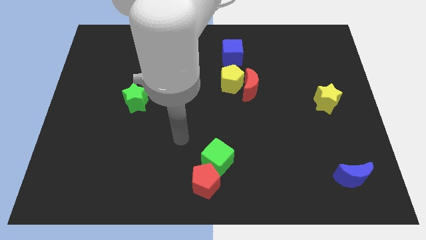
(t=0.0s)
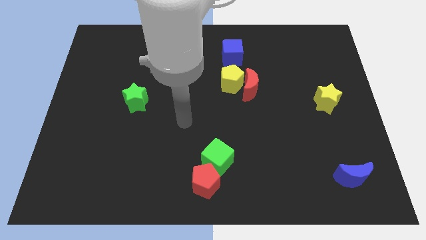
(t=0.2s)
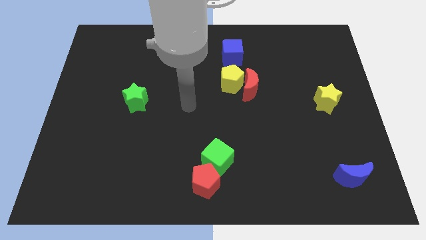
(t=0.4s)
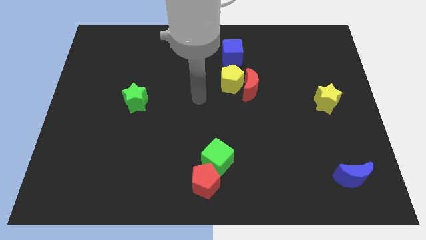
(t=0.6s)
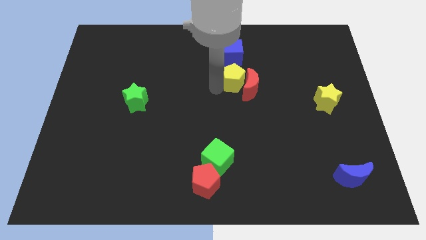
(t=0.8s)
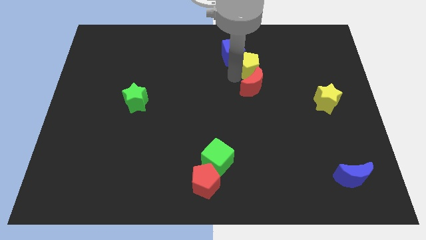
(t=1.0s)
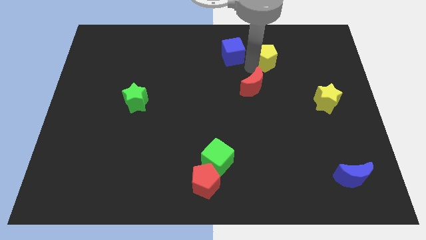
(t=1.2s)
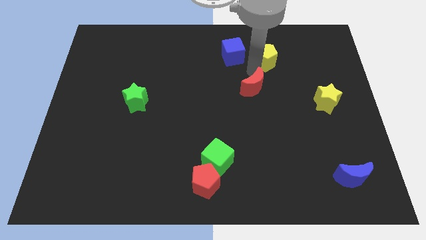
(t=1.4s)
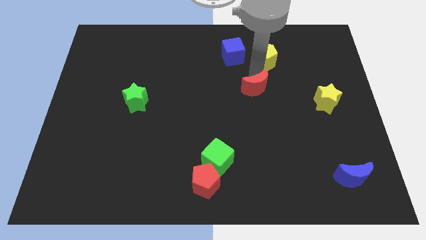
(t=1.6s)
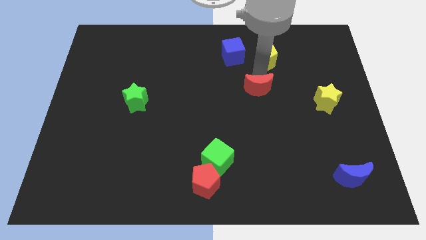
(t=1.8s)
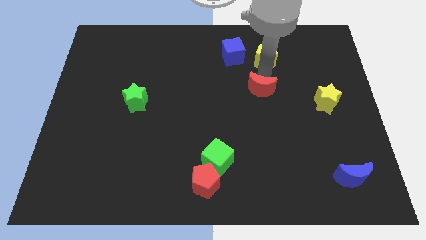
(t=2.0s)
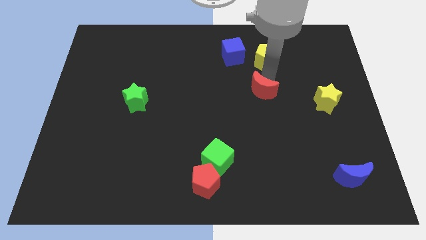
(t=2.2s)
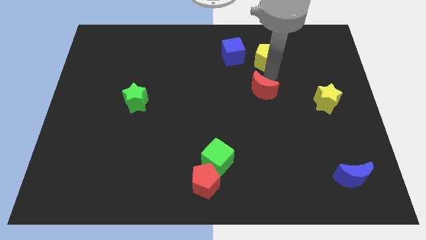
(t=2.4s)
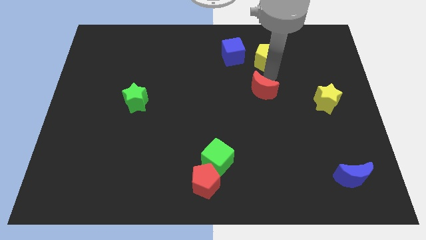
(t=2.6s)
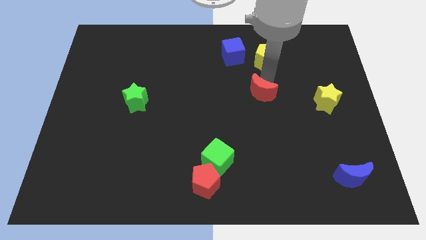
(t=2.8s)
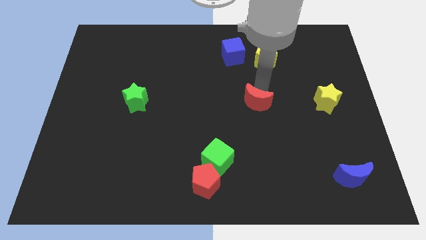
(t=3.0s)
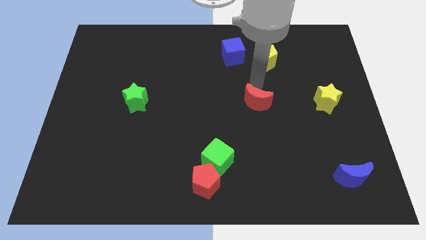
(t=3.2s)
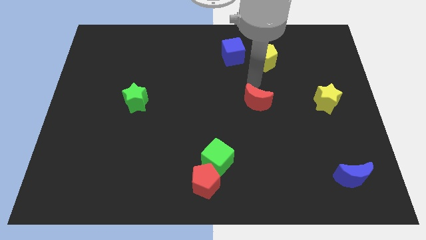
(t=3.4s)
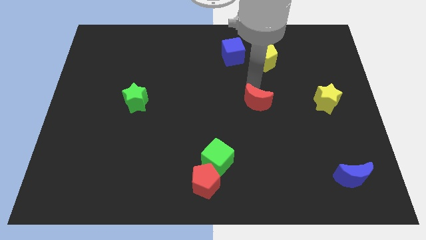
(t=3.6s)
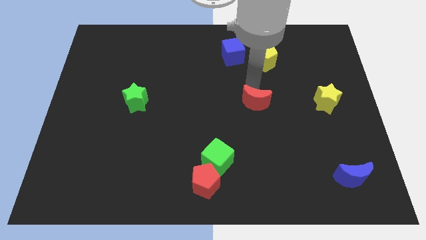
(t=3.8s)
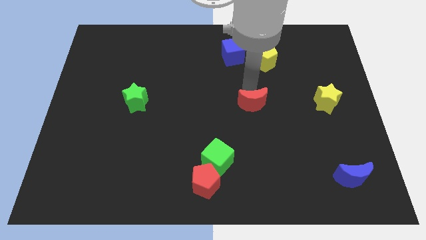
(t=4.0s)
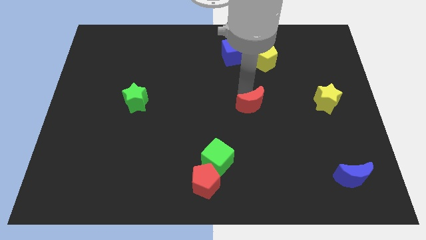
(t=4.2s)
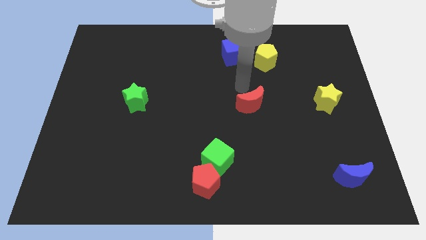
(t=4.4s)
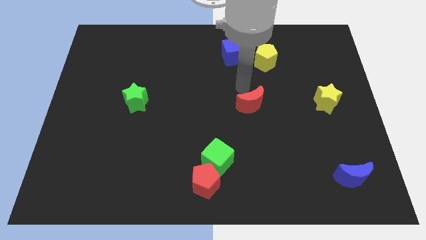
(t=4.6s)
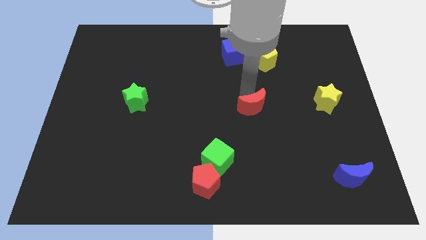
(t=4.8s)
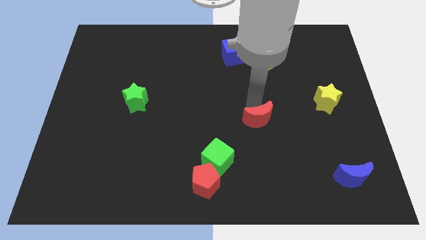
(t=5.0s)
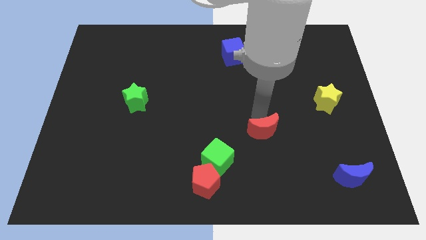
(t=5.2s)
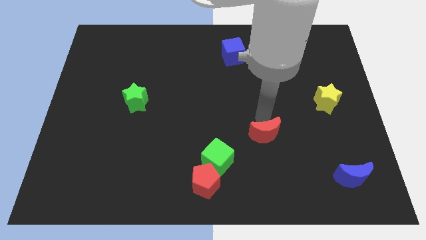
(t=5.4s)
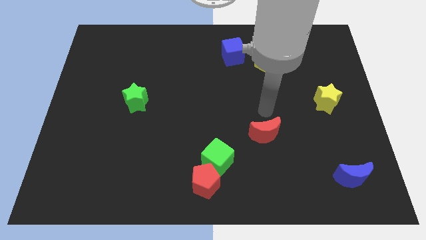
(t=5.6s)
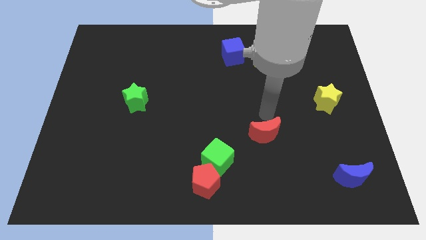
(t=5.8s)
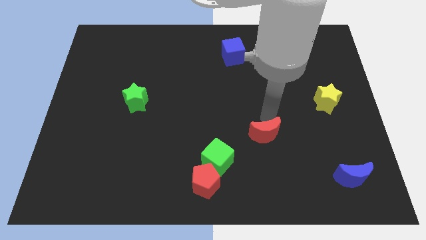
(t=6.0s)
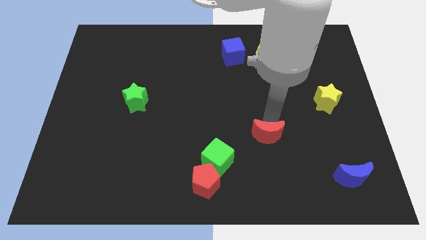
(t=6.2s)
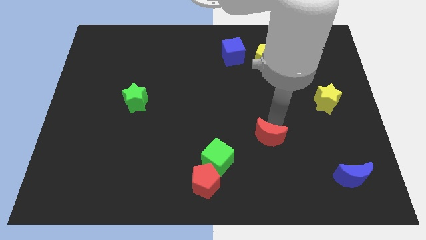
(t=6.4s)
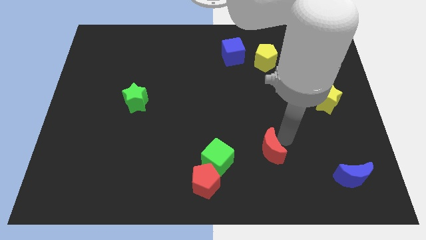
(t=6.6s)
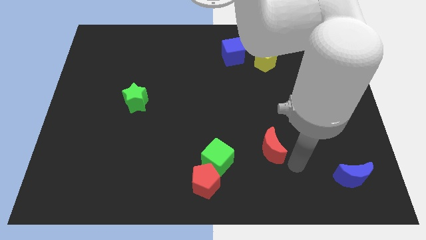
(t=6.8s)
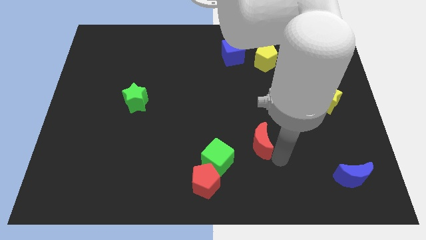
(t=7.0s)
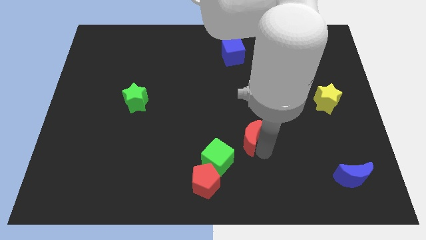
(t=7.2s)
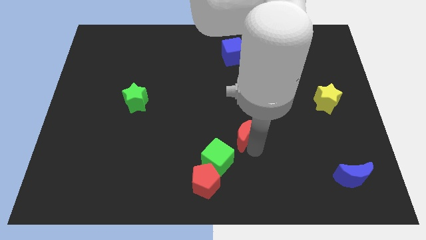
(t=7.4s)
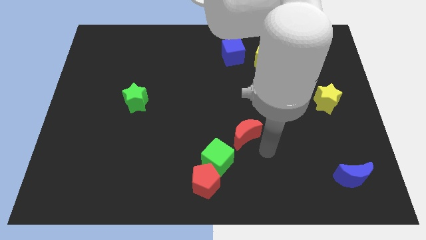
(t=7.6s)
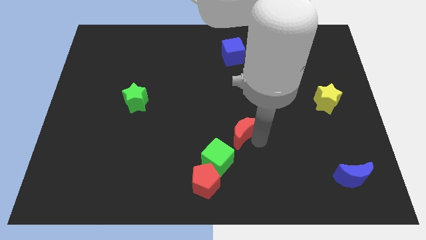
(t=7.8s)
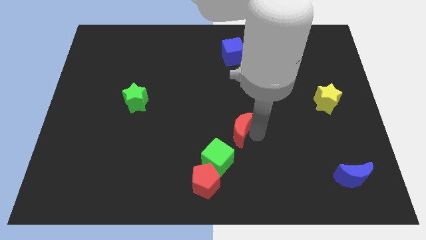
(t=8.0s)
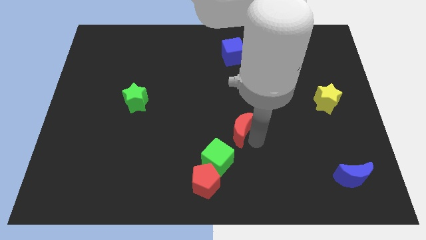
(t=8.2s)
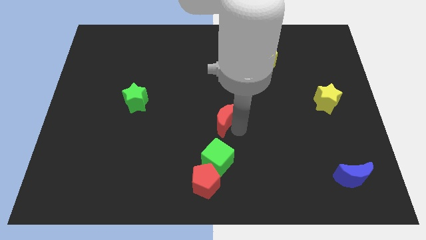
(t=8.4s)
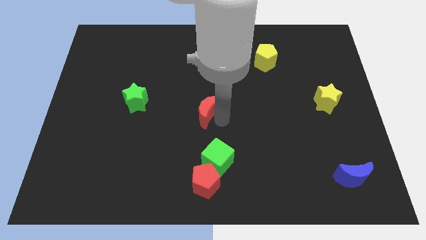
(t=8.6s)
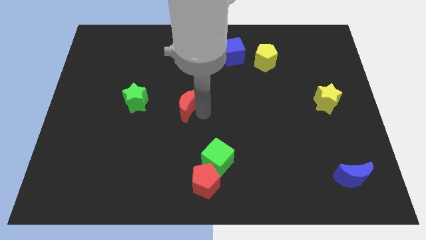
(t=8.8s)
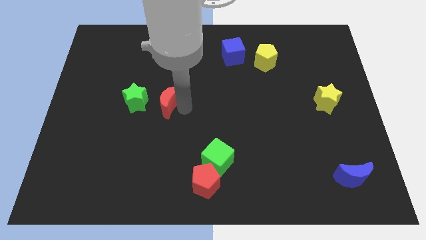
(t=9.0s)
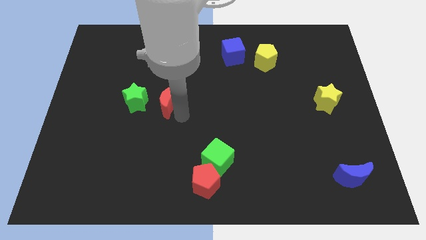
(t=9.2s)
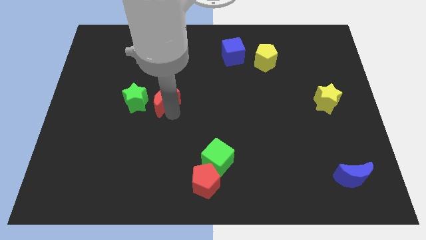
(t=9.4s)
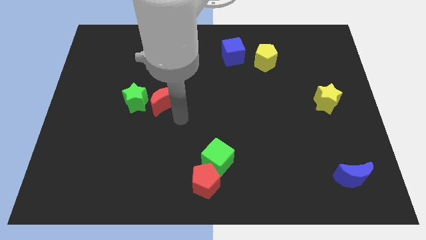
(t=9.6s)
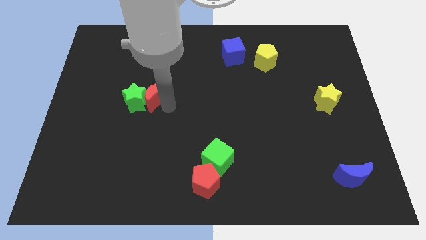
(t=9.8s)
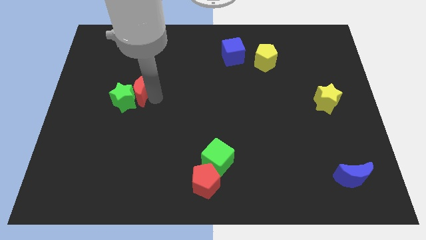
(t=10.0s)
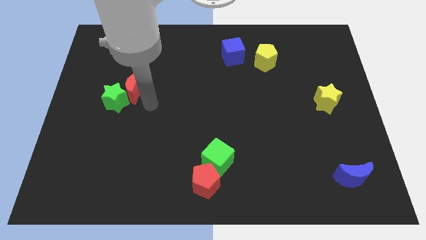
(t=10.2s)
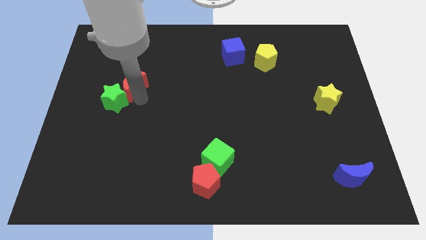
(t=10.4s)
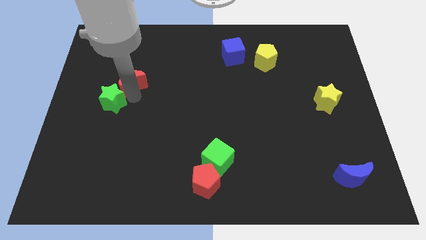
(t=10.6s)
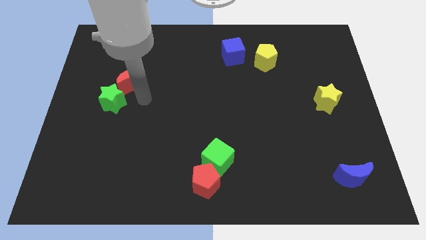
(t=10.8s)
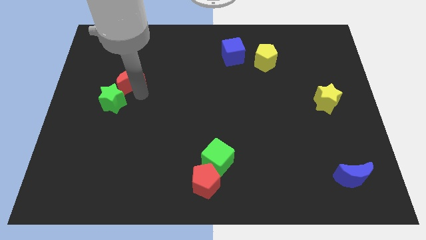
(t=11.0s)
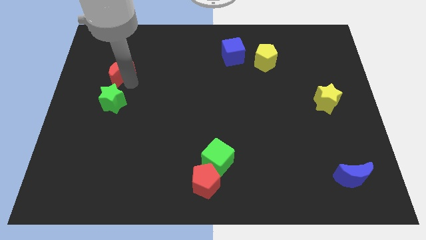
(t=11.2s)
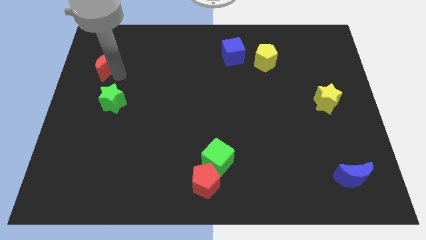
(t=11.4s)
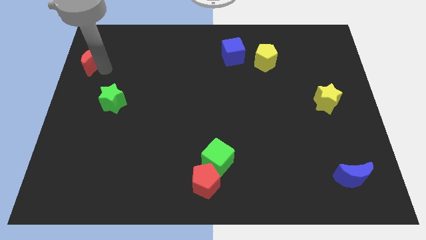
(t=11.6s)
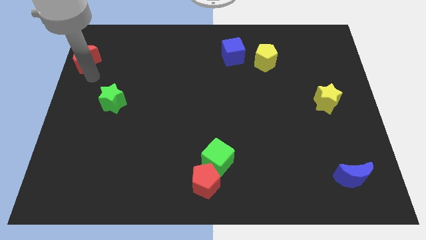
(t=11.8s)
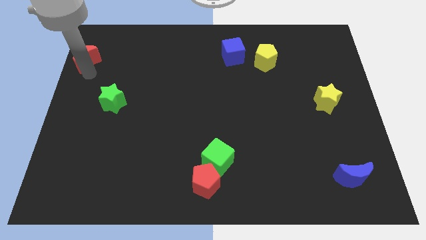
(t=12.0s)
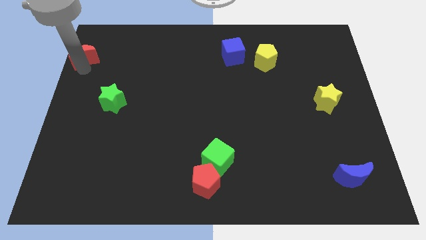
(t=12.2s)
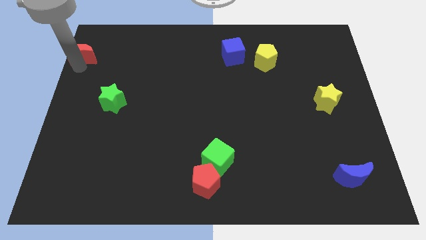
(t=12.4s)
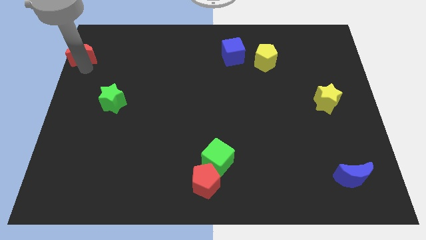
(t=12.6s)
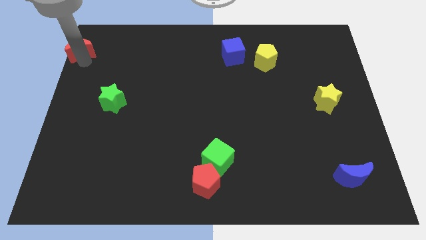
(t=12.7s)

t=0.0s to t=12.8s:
move the red moon to the top left corner
